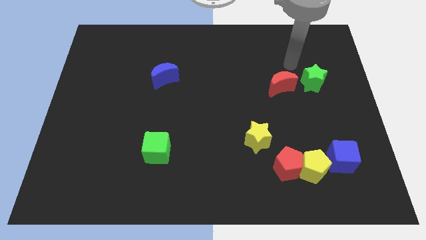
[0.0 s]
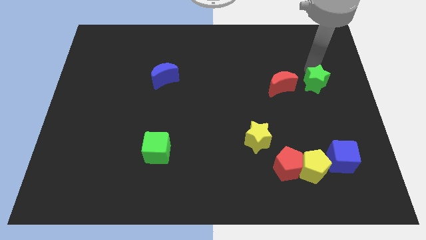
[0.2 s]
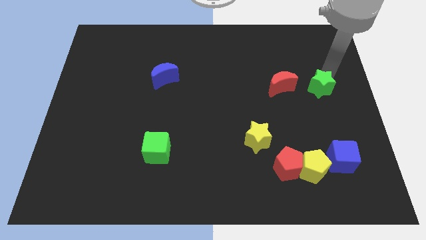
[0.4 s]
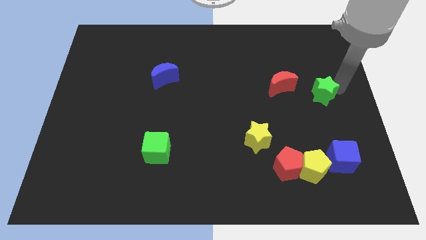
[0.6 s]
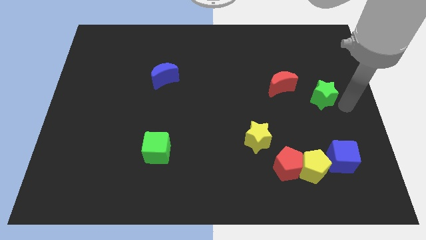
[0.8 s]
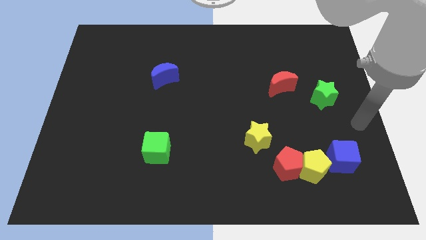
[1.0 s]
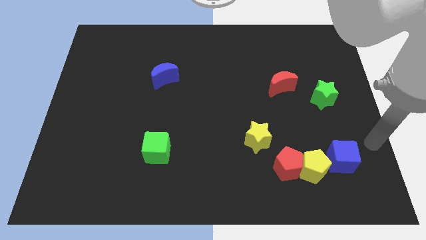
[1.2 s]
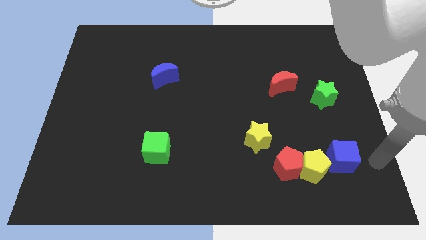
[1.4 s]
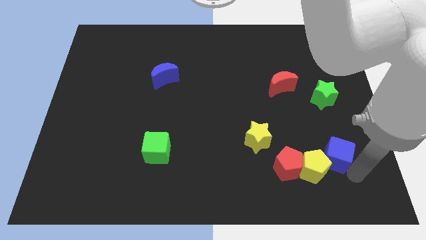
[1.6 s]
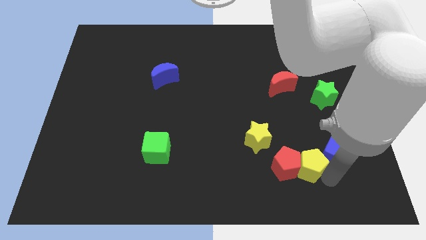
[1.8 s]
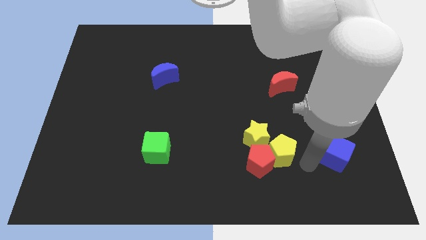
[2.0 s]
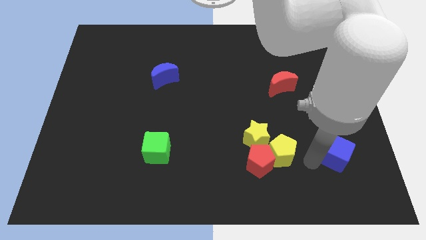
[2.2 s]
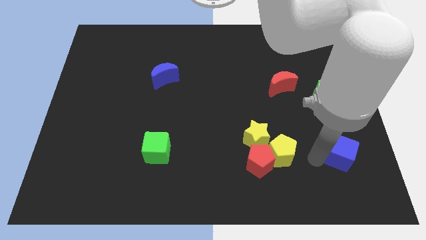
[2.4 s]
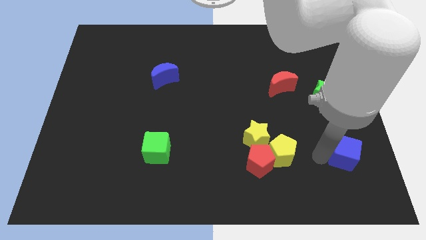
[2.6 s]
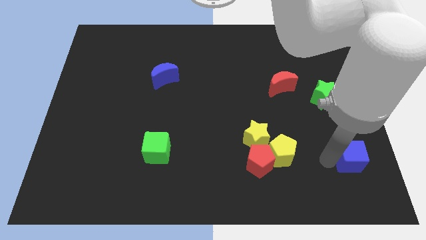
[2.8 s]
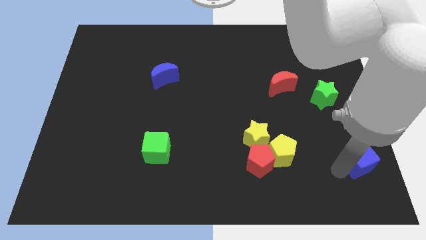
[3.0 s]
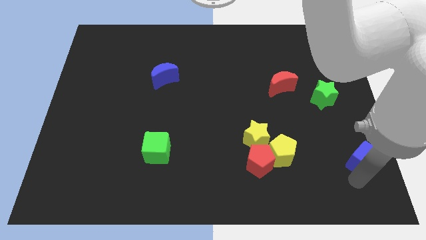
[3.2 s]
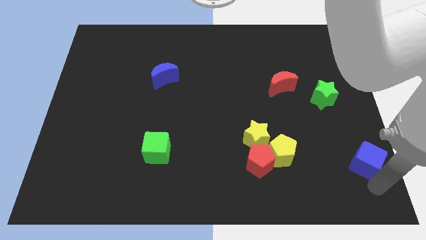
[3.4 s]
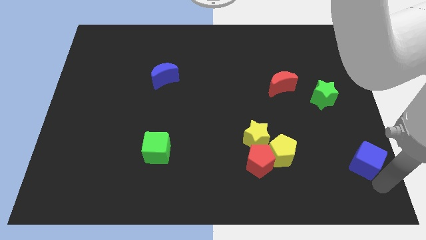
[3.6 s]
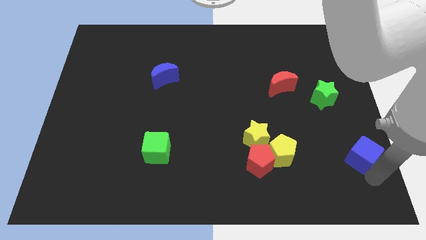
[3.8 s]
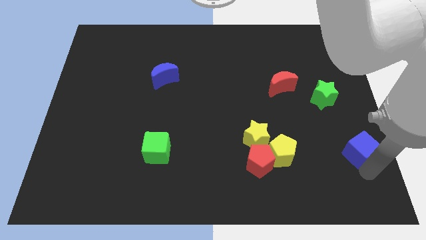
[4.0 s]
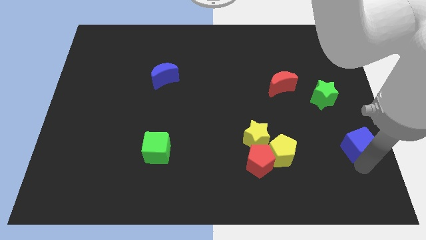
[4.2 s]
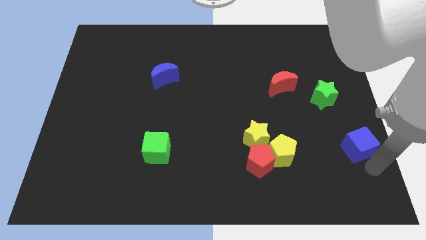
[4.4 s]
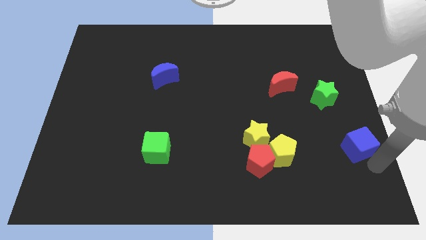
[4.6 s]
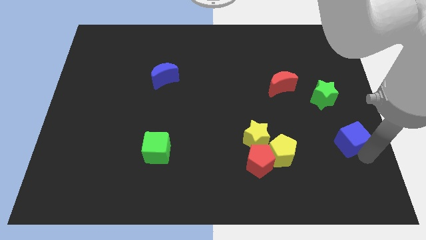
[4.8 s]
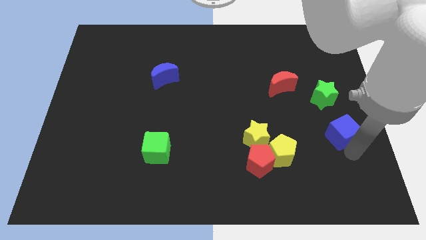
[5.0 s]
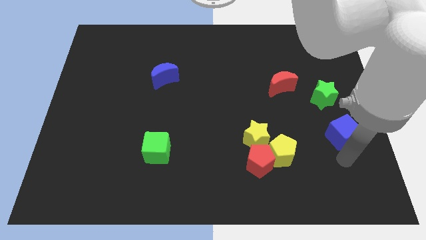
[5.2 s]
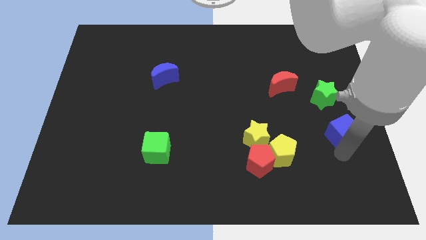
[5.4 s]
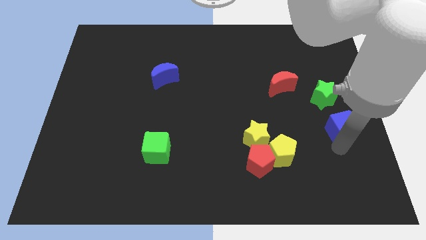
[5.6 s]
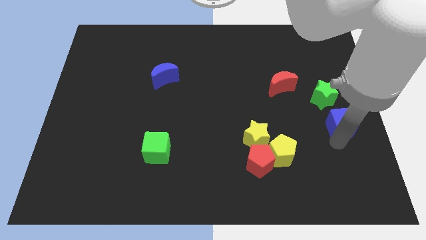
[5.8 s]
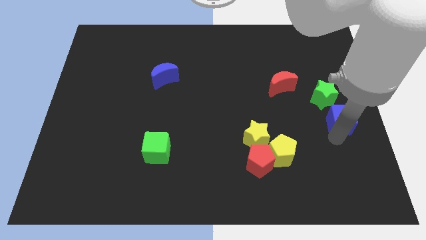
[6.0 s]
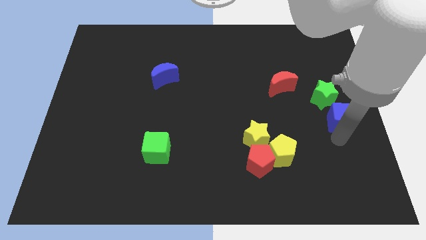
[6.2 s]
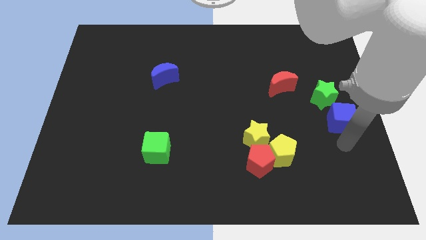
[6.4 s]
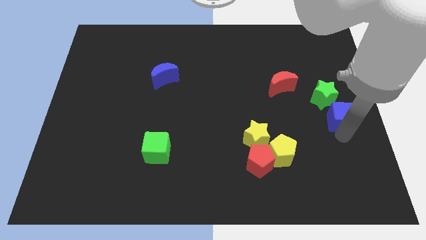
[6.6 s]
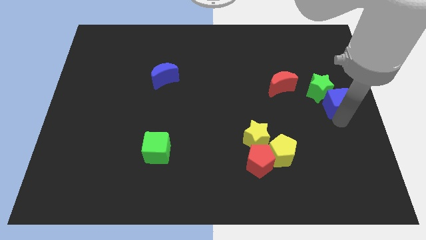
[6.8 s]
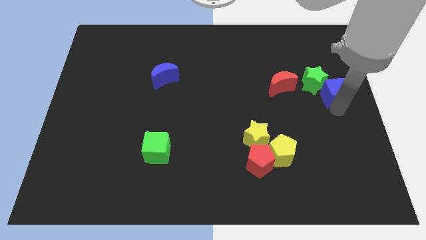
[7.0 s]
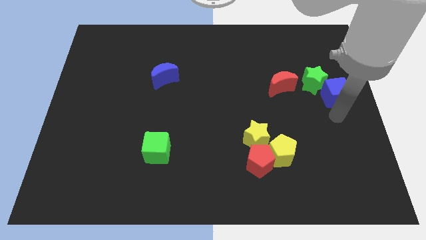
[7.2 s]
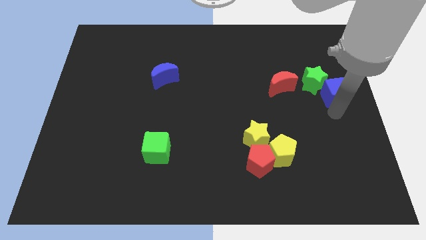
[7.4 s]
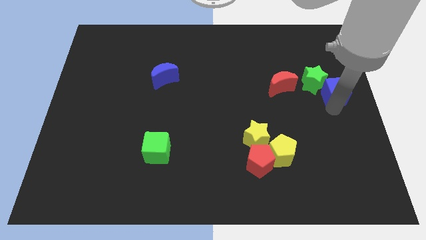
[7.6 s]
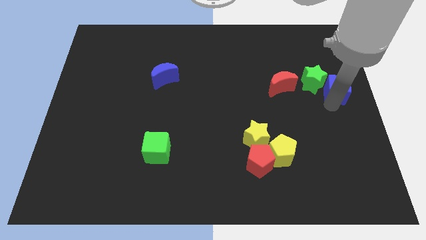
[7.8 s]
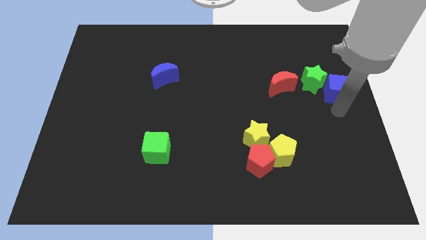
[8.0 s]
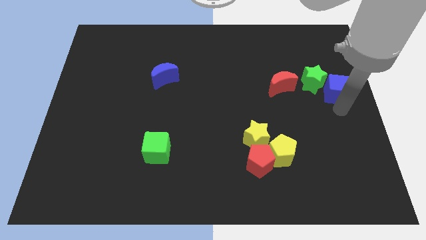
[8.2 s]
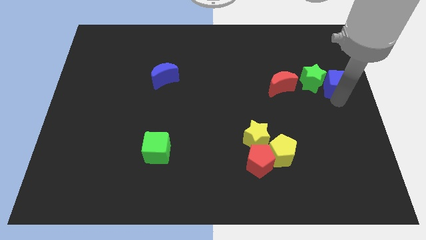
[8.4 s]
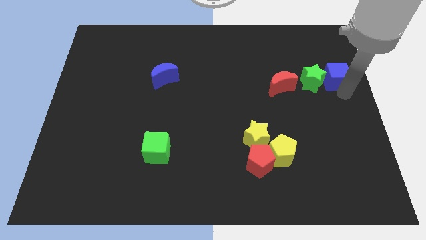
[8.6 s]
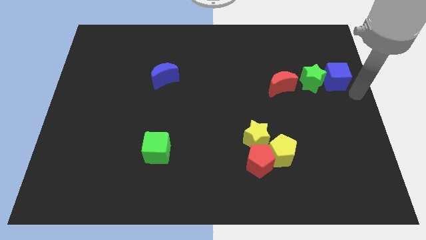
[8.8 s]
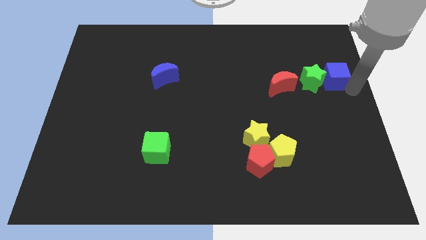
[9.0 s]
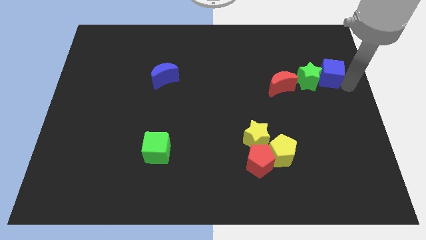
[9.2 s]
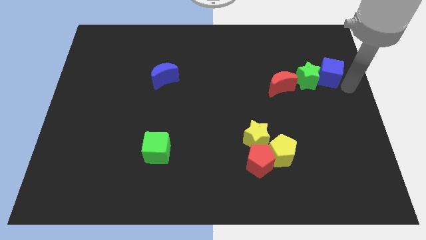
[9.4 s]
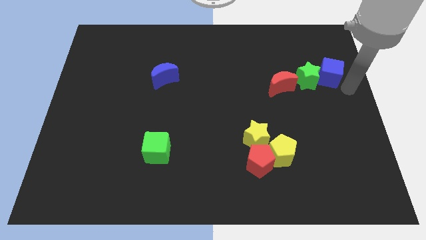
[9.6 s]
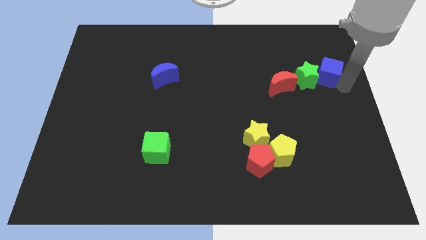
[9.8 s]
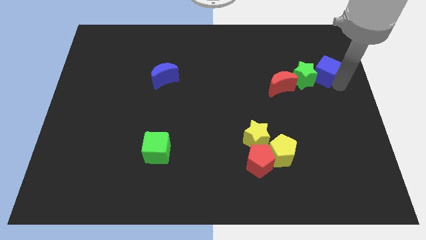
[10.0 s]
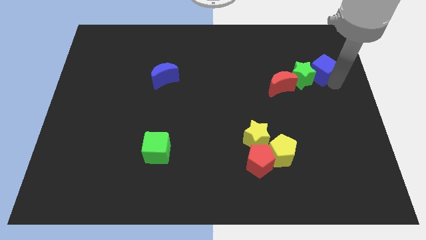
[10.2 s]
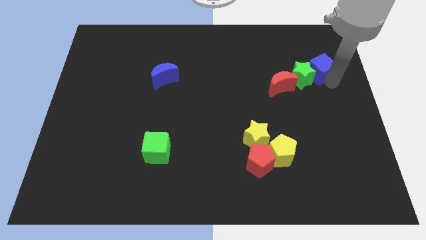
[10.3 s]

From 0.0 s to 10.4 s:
put the blue cube to the top right of the red moon

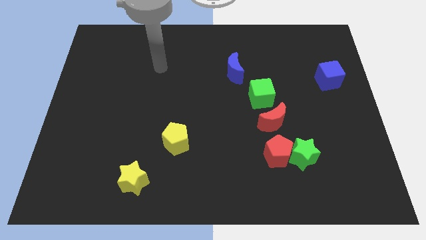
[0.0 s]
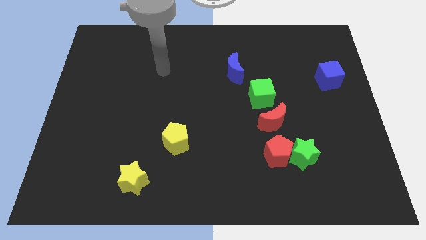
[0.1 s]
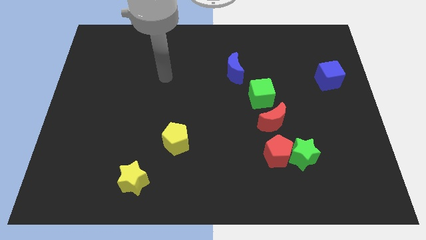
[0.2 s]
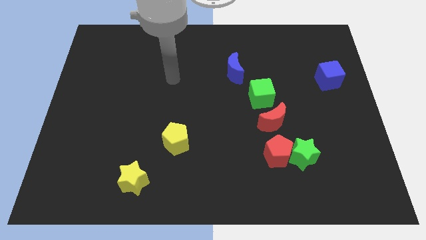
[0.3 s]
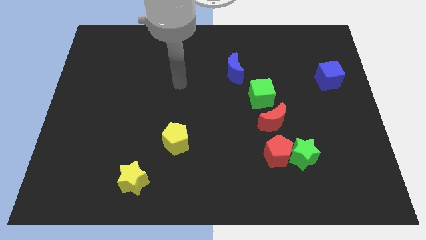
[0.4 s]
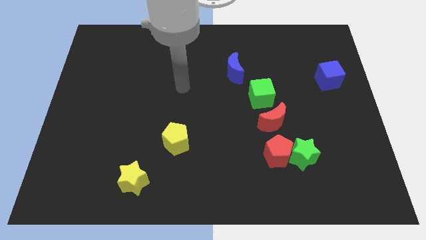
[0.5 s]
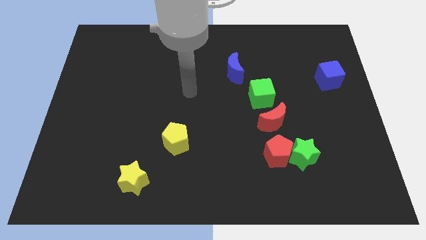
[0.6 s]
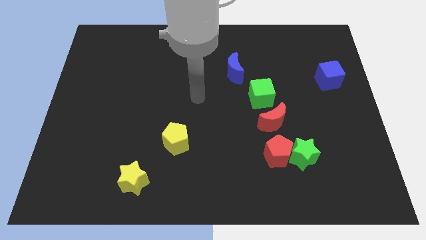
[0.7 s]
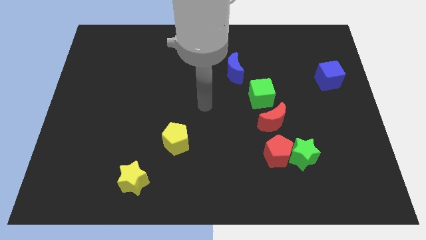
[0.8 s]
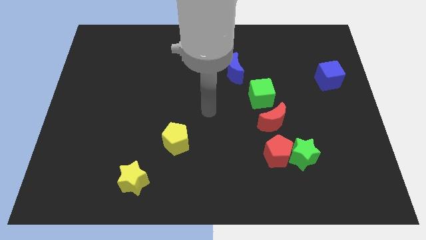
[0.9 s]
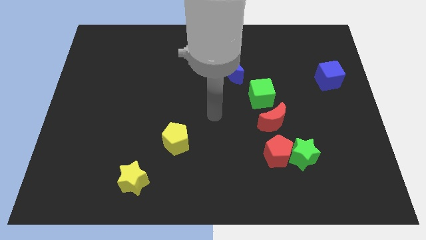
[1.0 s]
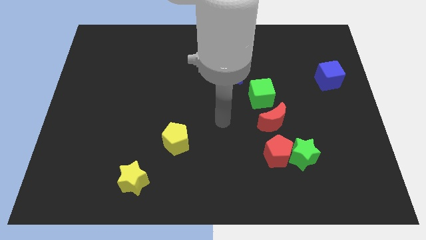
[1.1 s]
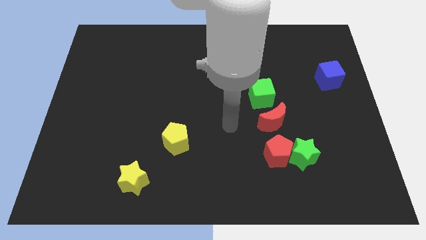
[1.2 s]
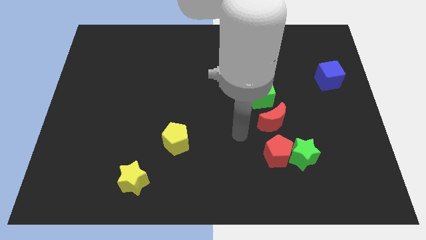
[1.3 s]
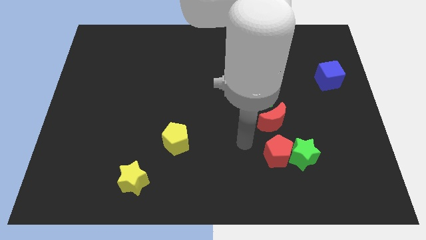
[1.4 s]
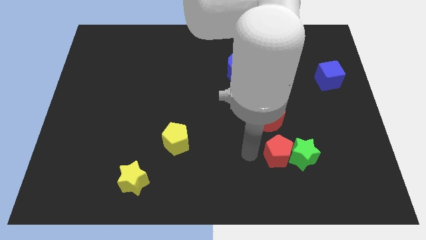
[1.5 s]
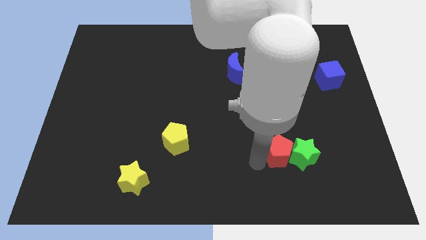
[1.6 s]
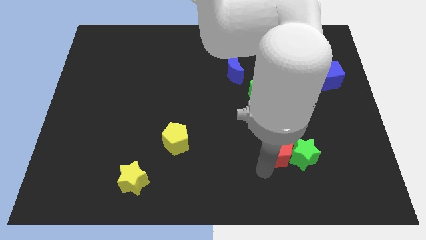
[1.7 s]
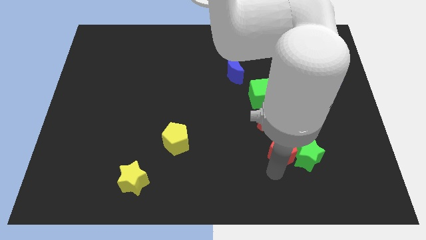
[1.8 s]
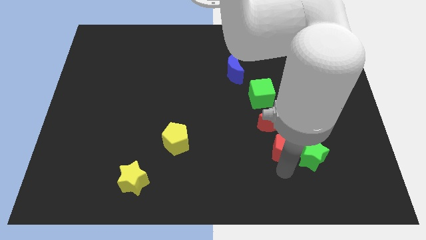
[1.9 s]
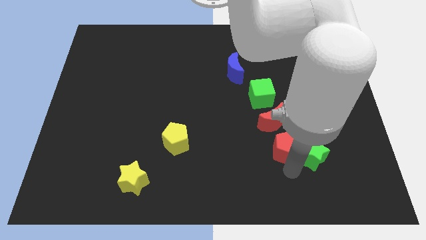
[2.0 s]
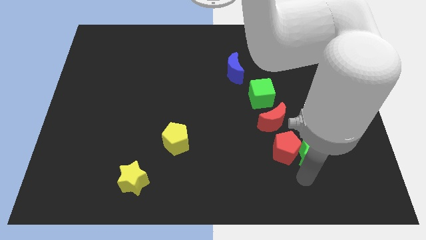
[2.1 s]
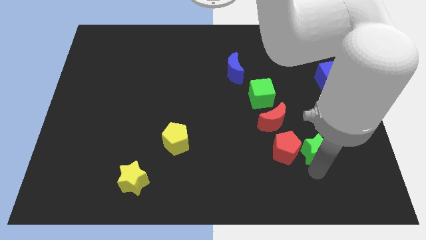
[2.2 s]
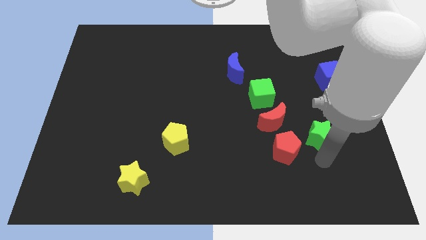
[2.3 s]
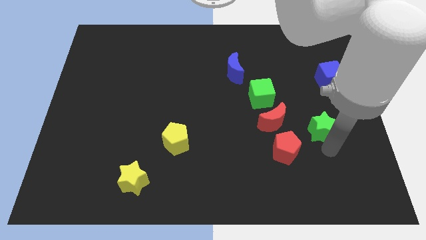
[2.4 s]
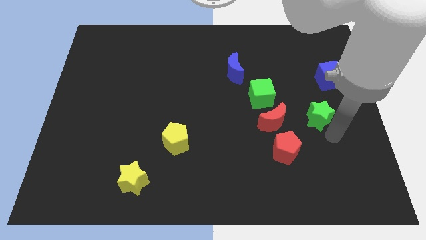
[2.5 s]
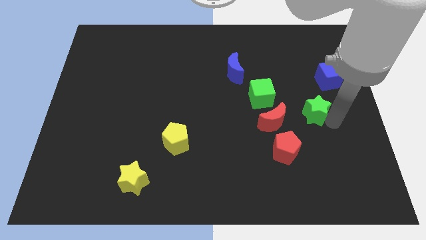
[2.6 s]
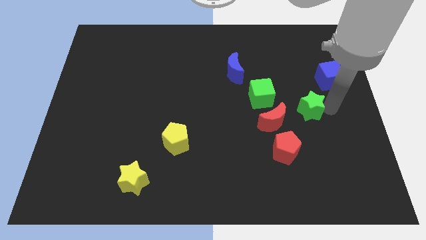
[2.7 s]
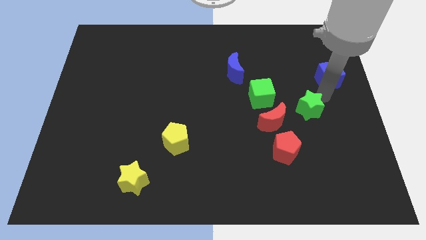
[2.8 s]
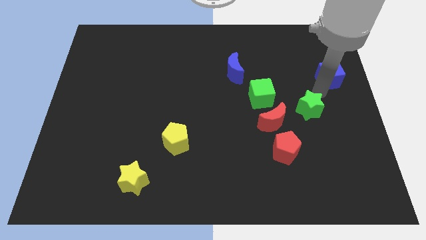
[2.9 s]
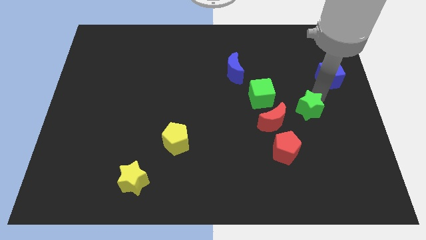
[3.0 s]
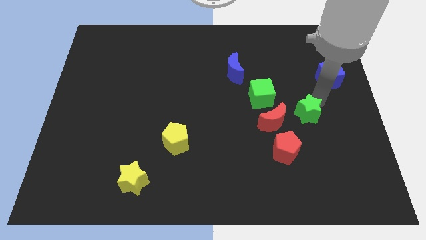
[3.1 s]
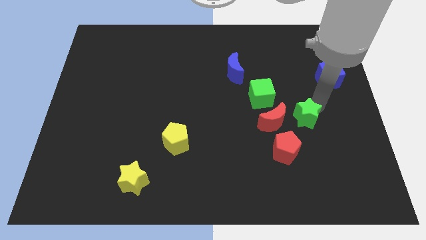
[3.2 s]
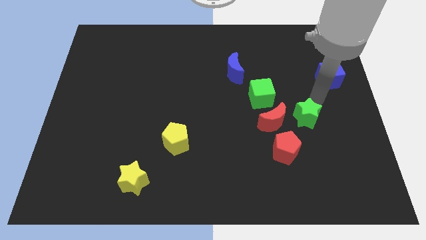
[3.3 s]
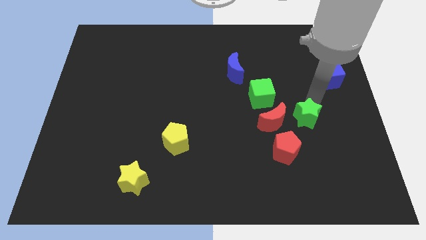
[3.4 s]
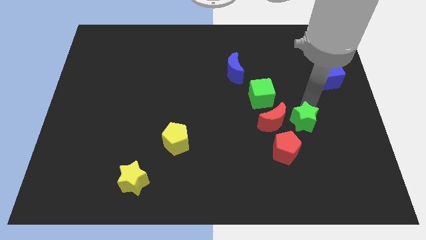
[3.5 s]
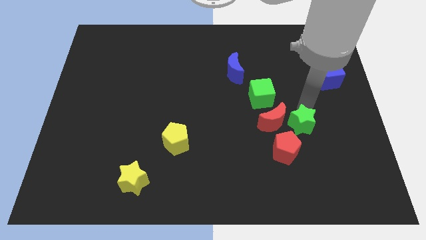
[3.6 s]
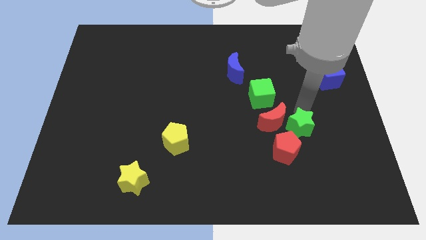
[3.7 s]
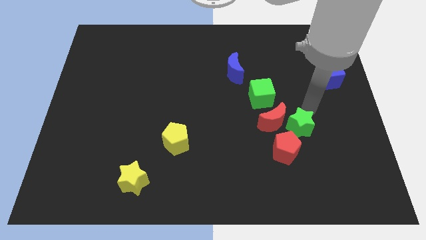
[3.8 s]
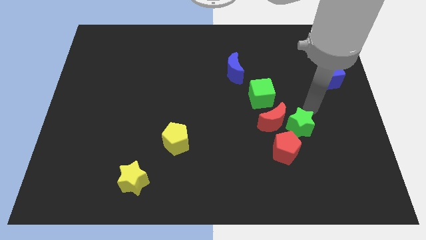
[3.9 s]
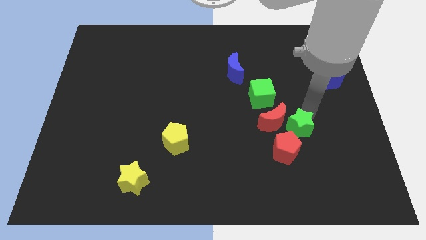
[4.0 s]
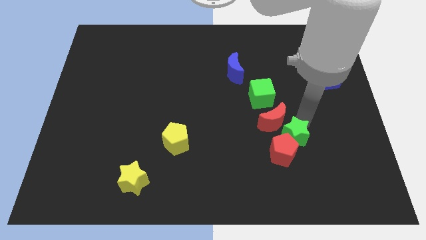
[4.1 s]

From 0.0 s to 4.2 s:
slide the green star below the red moon
